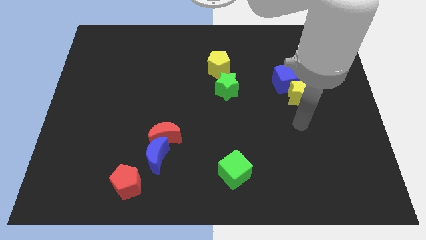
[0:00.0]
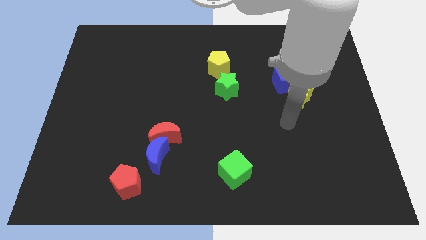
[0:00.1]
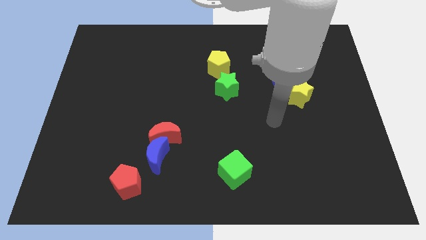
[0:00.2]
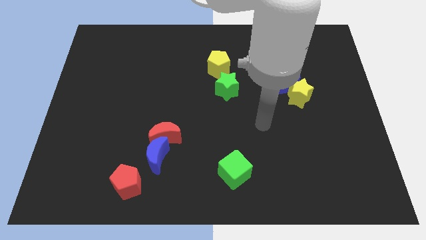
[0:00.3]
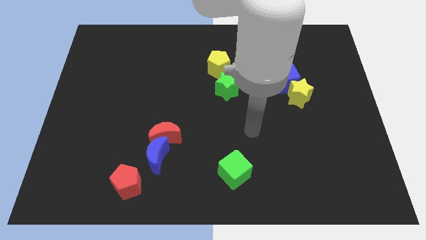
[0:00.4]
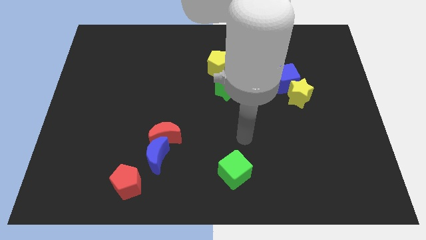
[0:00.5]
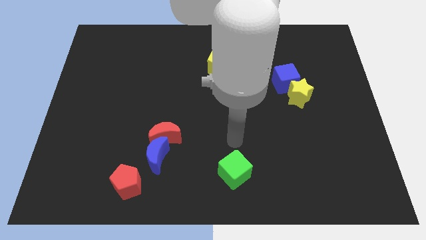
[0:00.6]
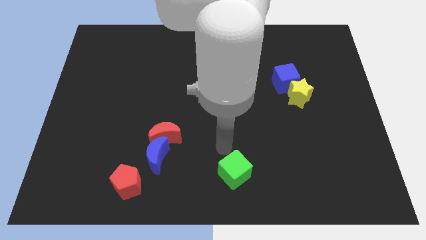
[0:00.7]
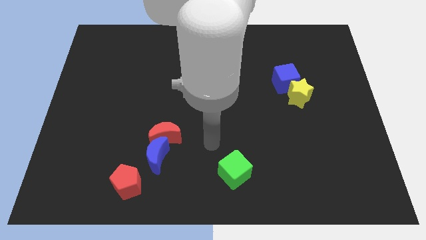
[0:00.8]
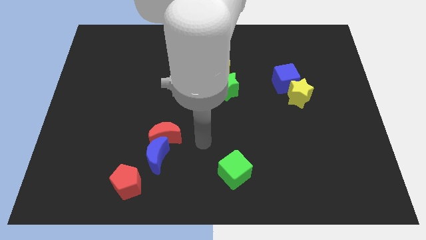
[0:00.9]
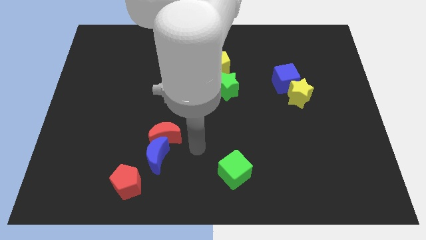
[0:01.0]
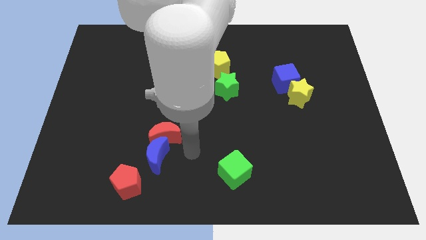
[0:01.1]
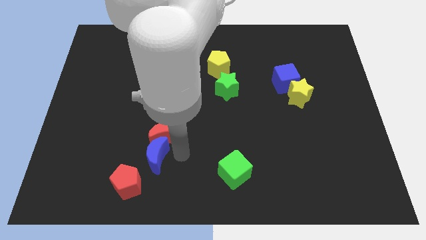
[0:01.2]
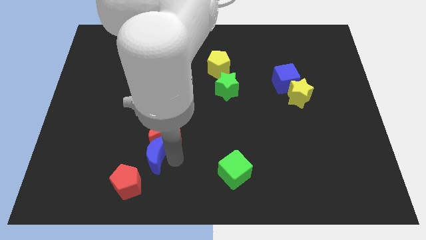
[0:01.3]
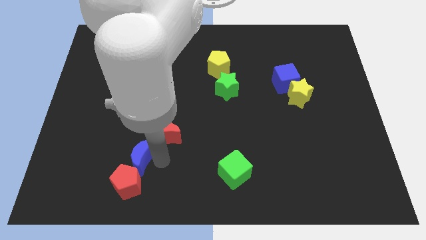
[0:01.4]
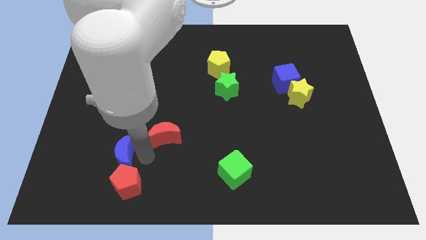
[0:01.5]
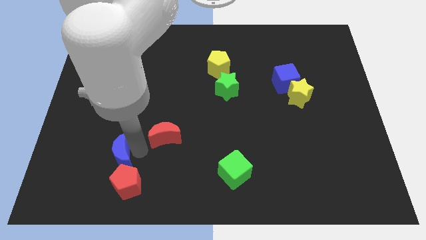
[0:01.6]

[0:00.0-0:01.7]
move the red moon away from the blue moon

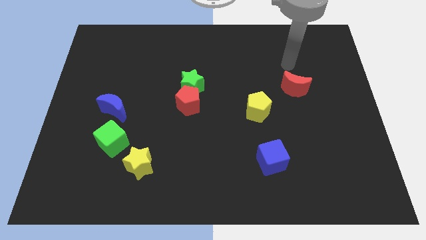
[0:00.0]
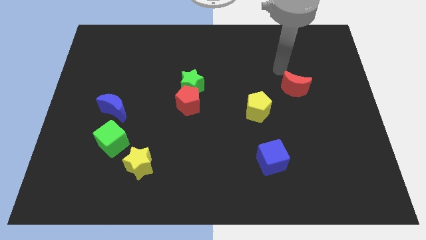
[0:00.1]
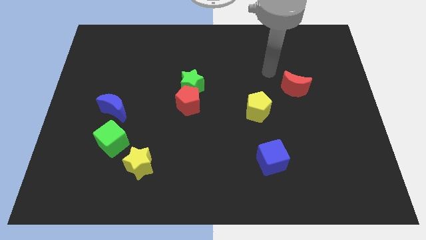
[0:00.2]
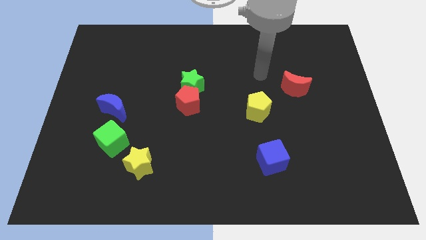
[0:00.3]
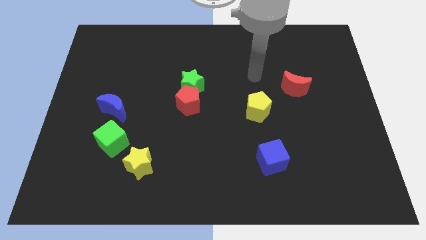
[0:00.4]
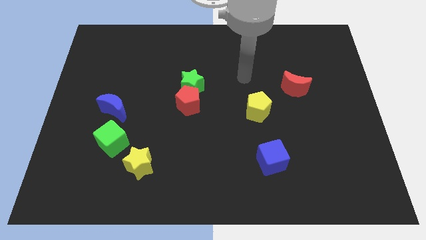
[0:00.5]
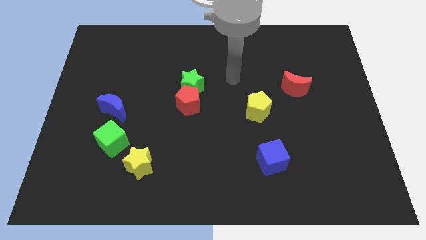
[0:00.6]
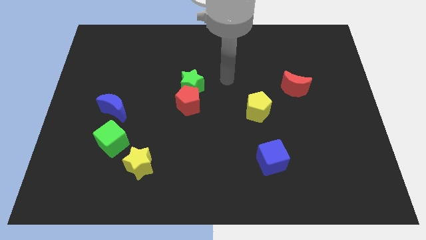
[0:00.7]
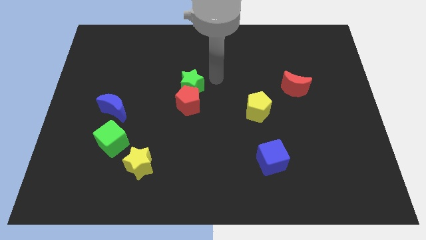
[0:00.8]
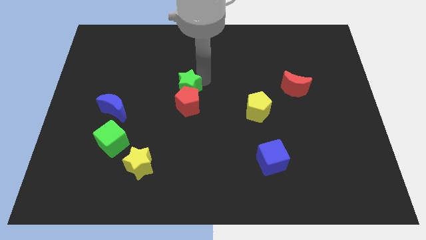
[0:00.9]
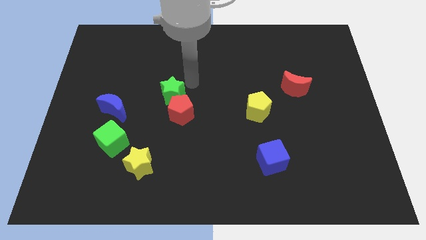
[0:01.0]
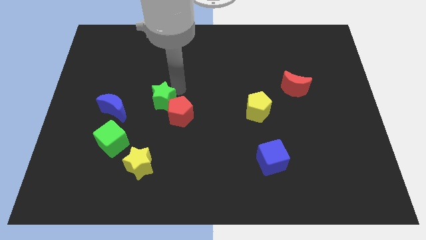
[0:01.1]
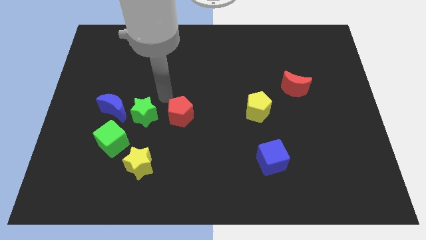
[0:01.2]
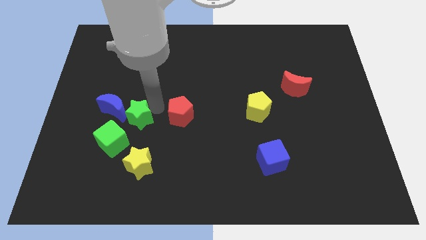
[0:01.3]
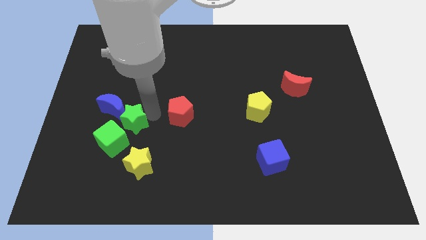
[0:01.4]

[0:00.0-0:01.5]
pull the red pentagon apart from the green star

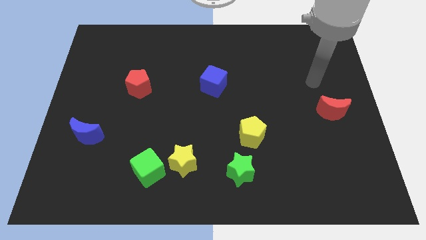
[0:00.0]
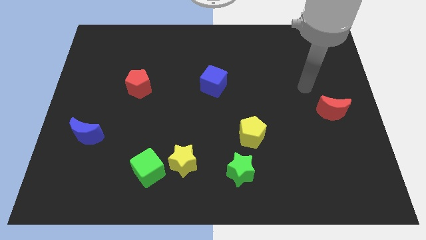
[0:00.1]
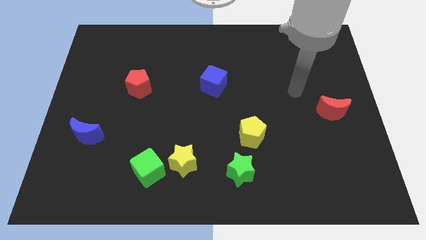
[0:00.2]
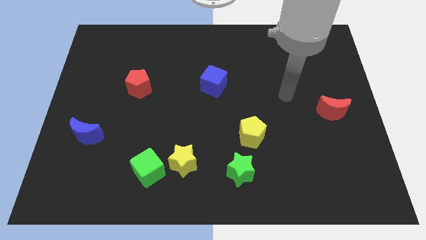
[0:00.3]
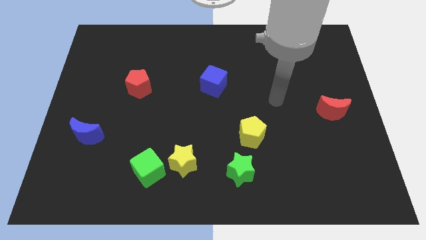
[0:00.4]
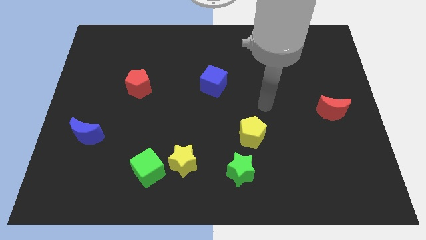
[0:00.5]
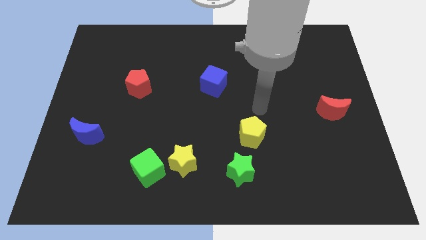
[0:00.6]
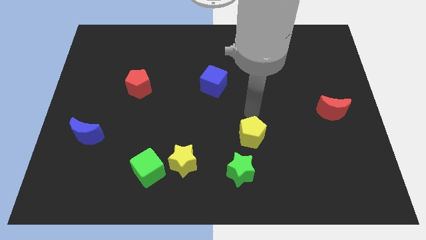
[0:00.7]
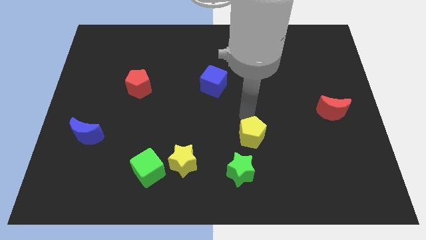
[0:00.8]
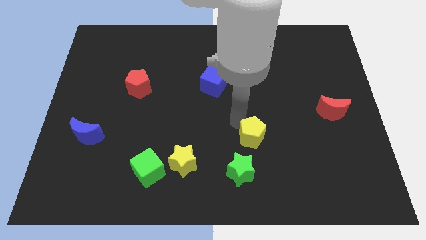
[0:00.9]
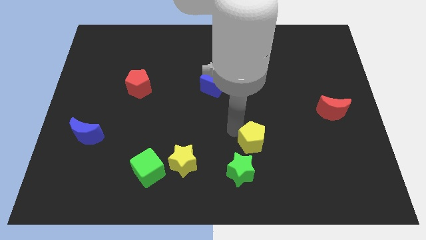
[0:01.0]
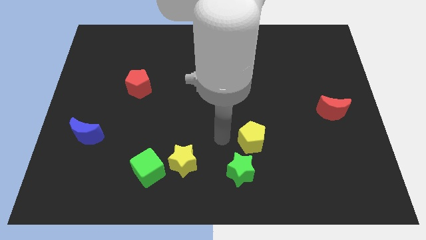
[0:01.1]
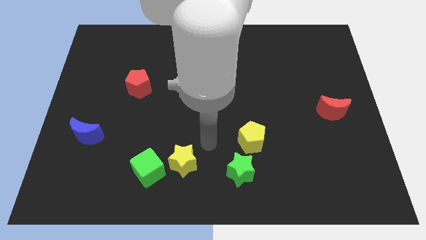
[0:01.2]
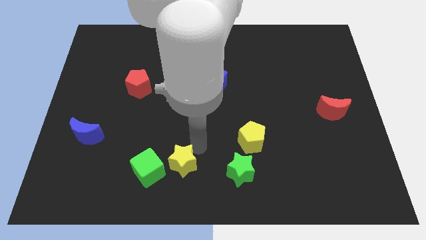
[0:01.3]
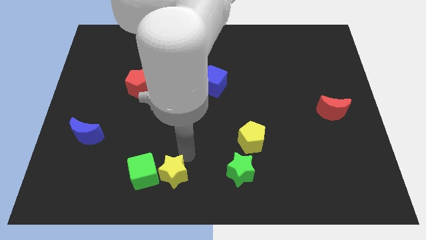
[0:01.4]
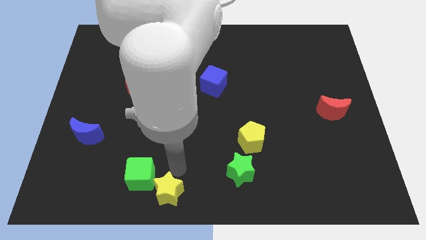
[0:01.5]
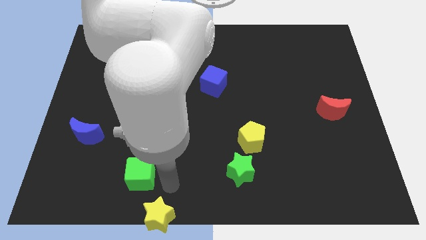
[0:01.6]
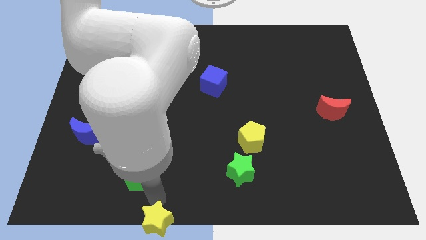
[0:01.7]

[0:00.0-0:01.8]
pull the green cube apart from the yellow star

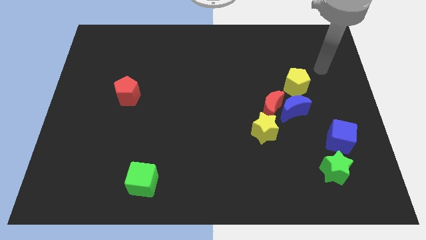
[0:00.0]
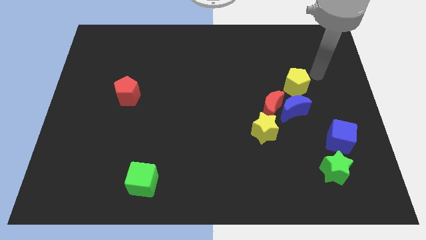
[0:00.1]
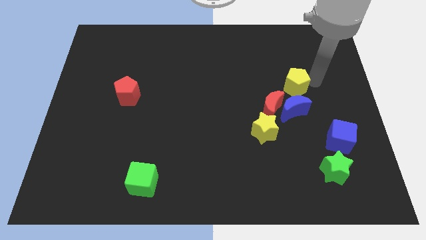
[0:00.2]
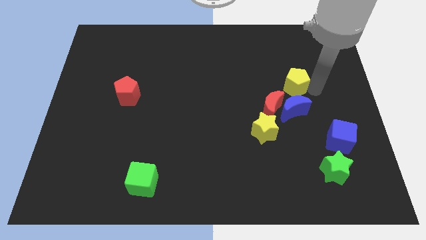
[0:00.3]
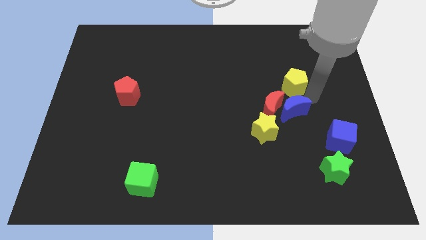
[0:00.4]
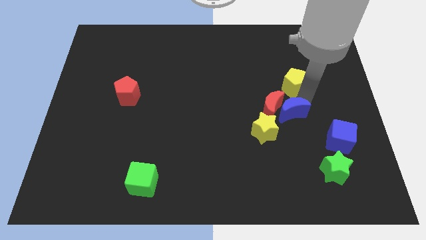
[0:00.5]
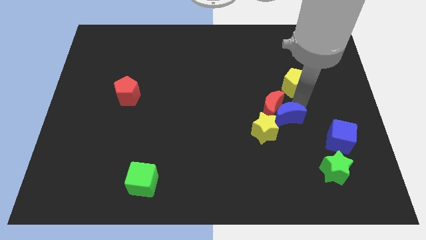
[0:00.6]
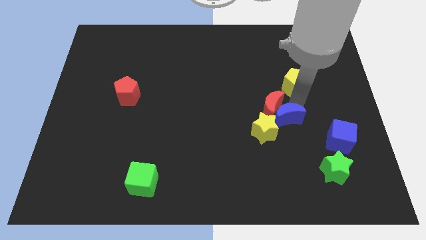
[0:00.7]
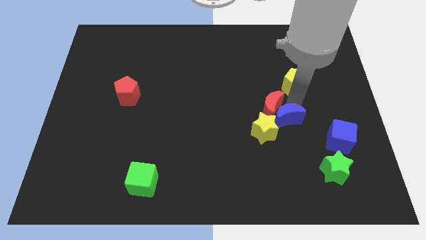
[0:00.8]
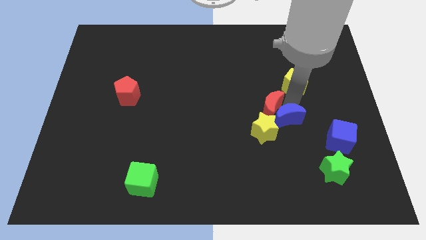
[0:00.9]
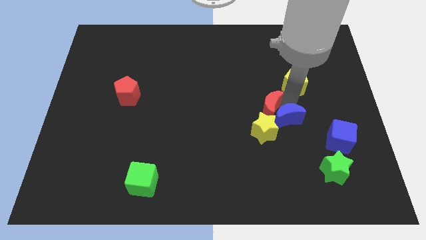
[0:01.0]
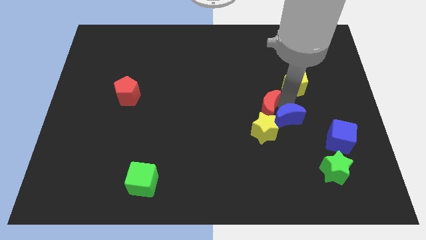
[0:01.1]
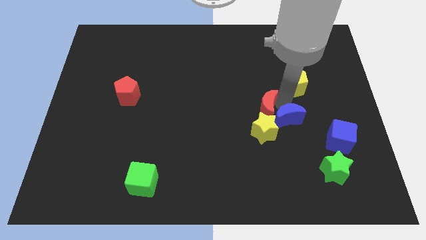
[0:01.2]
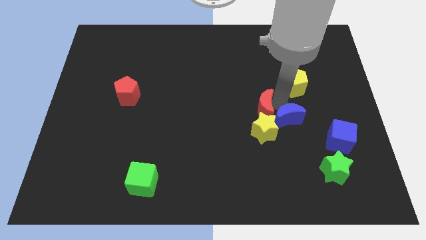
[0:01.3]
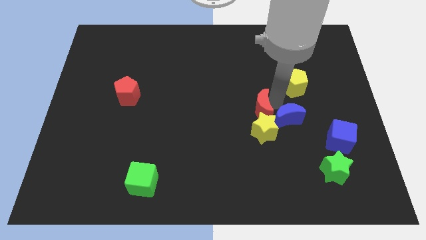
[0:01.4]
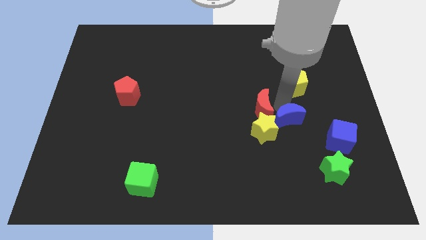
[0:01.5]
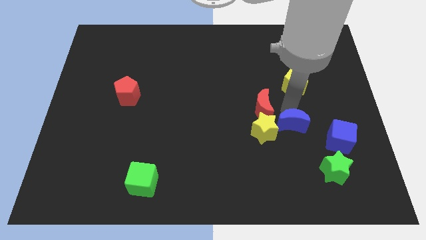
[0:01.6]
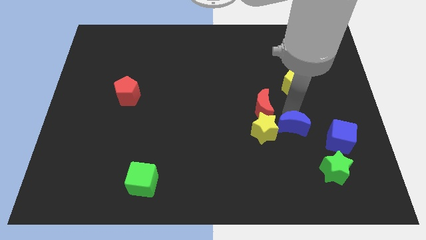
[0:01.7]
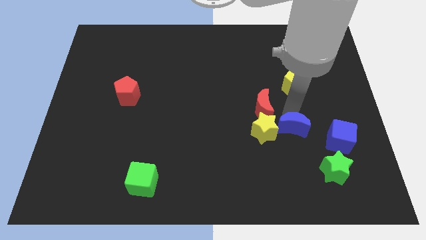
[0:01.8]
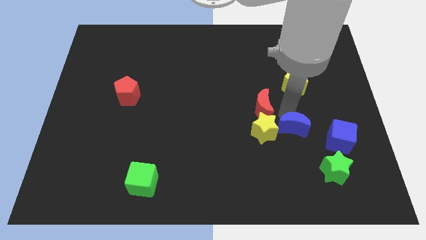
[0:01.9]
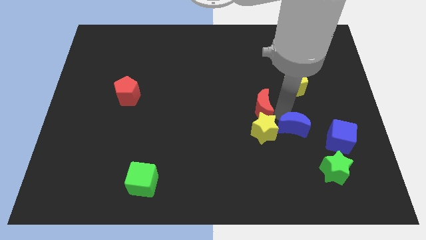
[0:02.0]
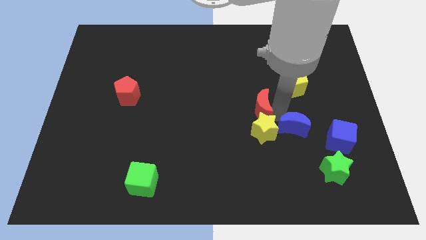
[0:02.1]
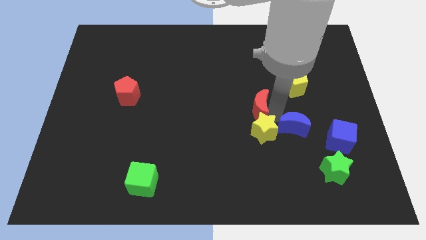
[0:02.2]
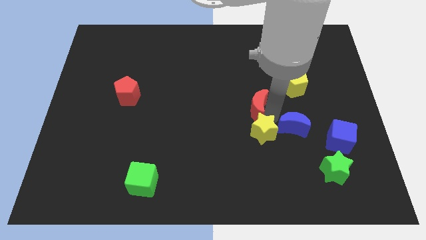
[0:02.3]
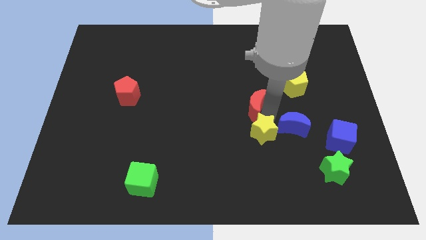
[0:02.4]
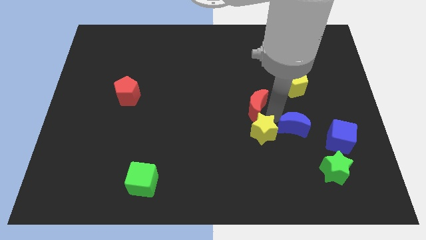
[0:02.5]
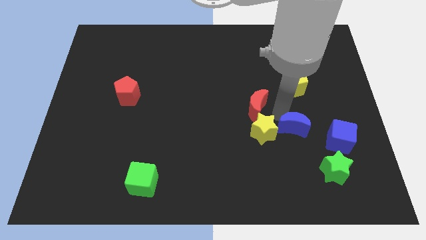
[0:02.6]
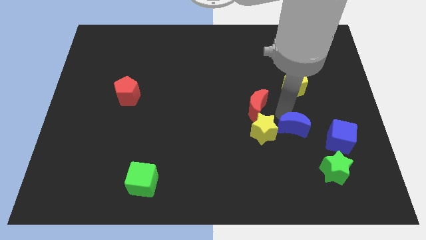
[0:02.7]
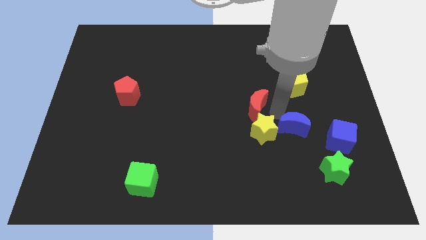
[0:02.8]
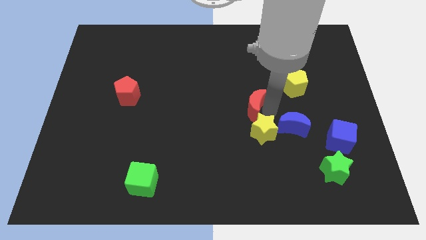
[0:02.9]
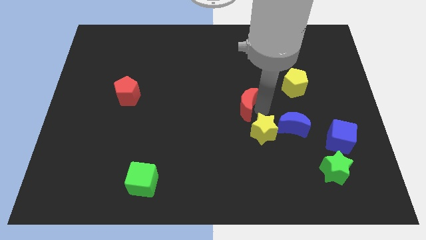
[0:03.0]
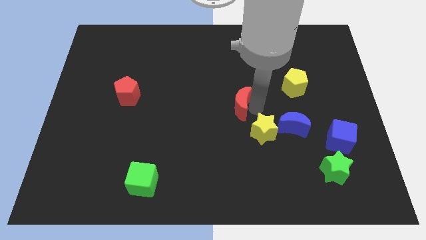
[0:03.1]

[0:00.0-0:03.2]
pull the red moon apart from the group

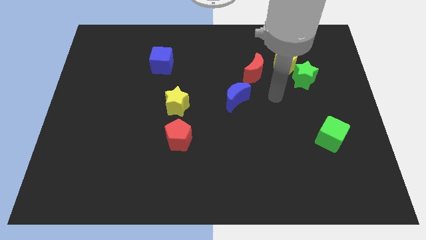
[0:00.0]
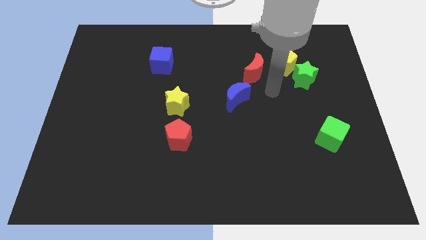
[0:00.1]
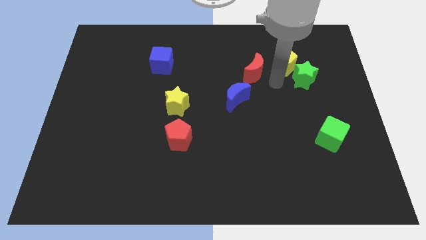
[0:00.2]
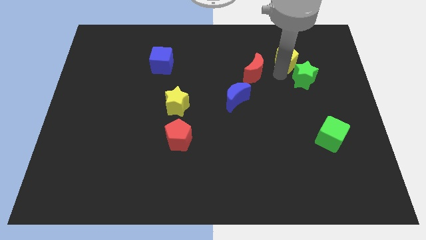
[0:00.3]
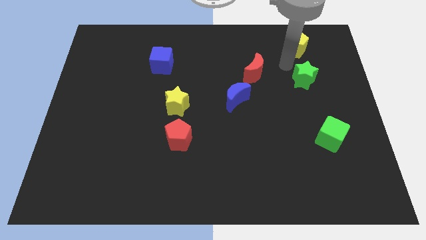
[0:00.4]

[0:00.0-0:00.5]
separate the green star from the yellow pentagon

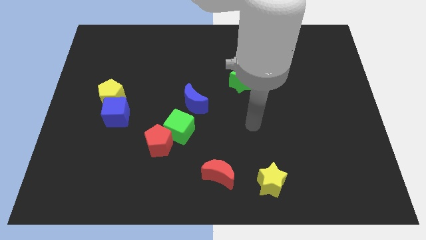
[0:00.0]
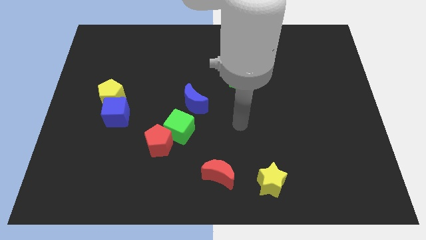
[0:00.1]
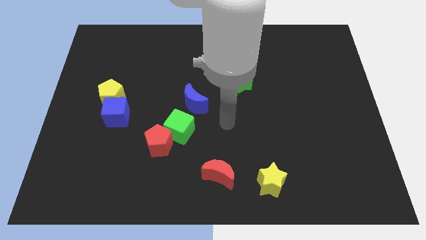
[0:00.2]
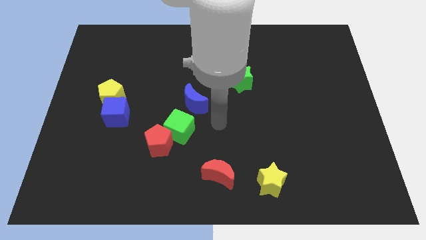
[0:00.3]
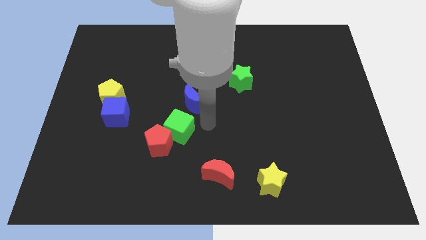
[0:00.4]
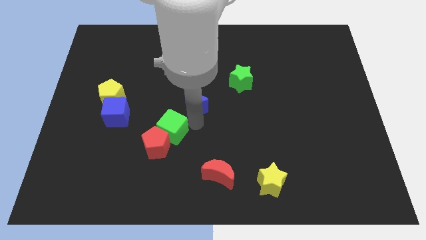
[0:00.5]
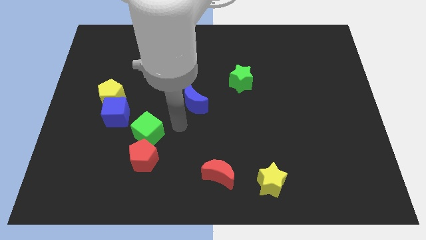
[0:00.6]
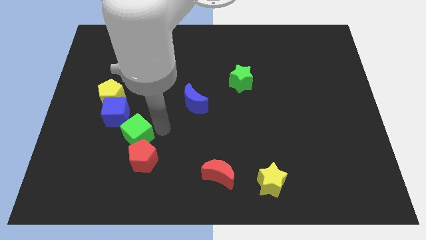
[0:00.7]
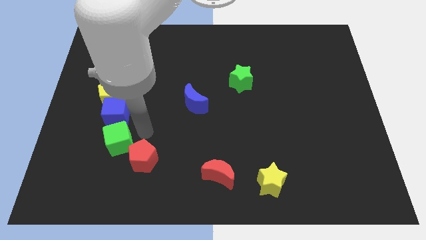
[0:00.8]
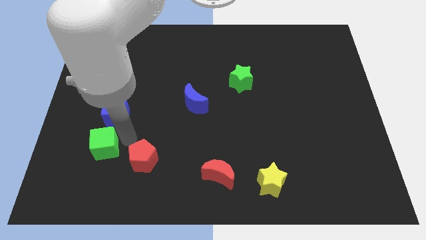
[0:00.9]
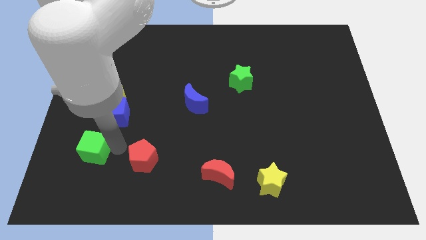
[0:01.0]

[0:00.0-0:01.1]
separate the red pentagon from the green cube
